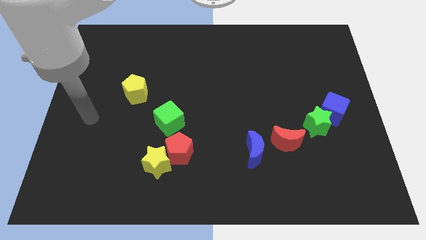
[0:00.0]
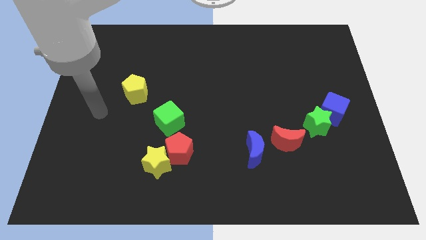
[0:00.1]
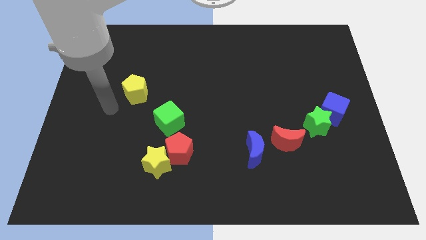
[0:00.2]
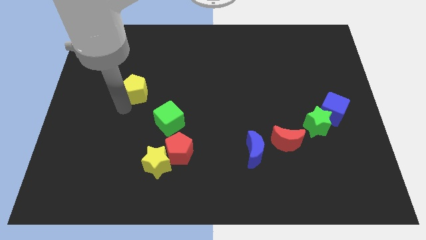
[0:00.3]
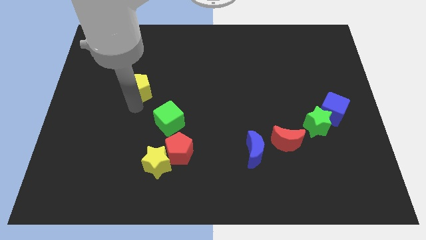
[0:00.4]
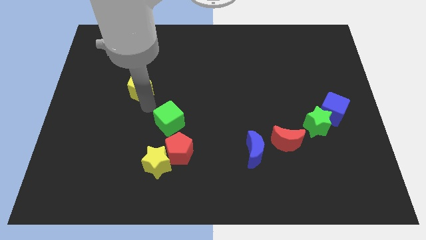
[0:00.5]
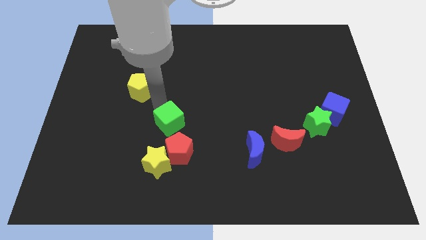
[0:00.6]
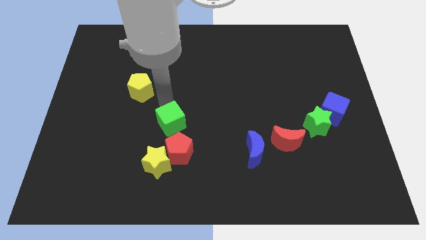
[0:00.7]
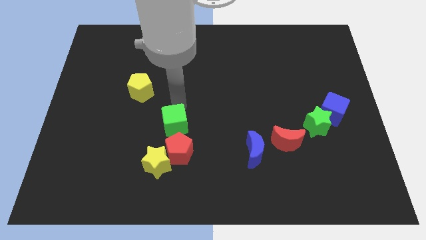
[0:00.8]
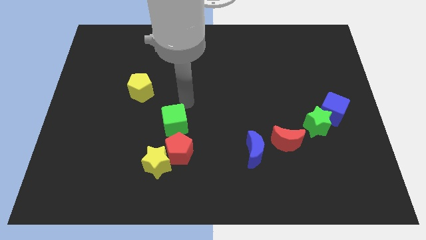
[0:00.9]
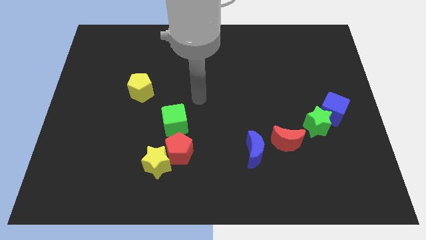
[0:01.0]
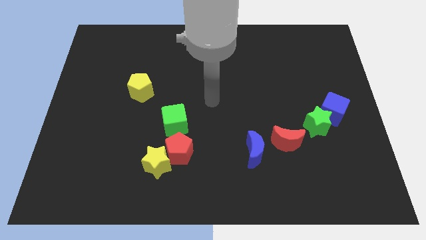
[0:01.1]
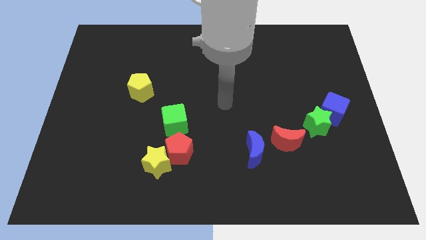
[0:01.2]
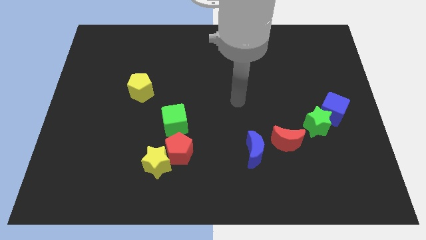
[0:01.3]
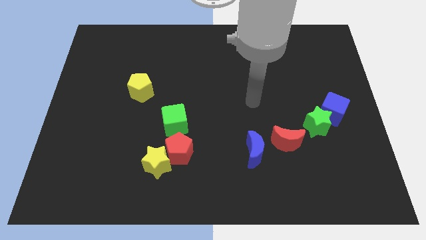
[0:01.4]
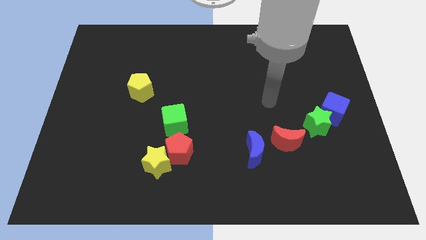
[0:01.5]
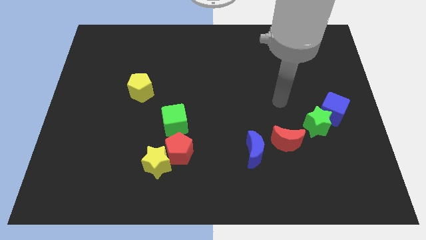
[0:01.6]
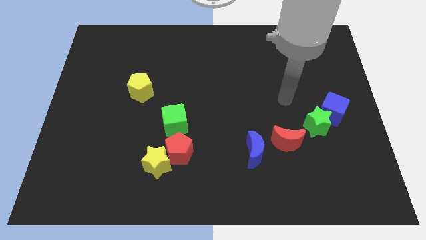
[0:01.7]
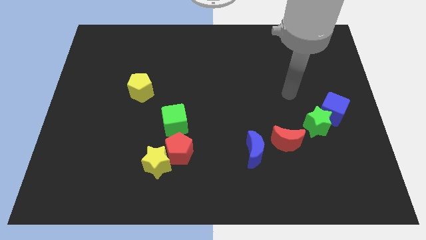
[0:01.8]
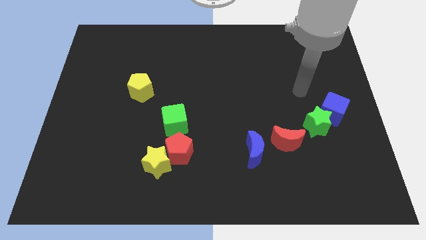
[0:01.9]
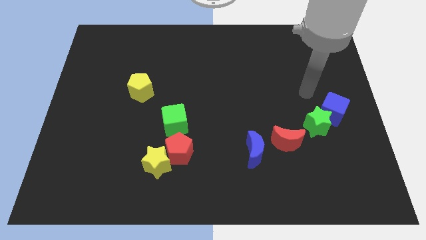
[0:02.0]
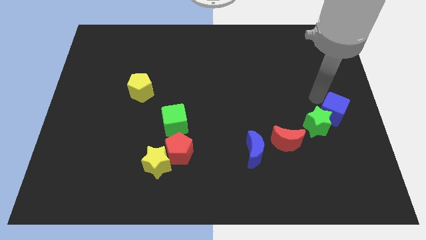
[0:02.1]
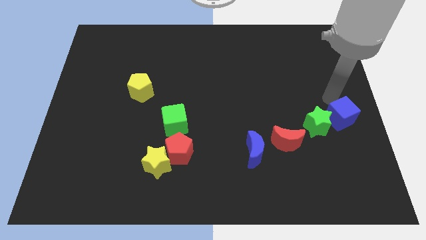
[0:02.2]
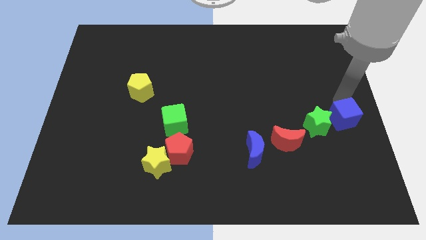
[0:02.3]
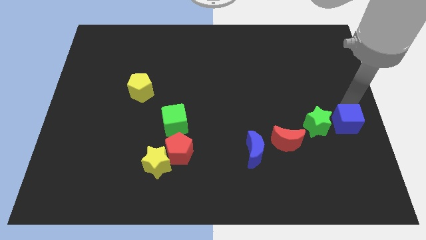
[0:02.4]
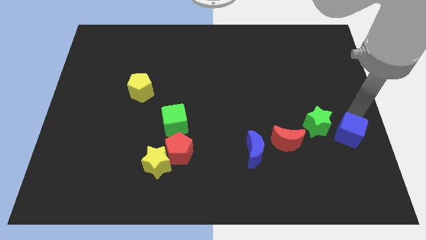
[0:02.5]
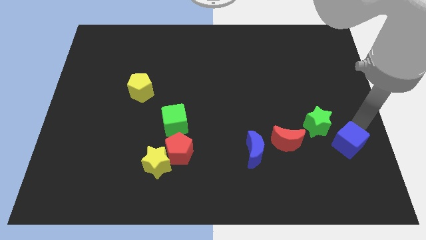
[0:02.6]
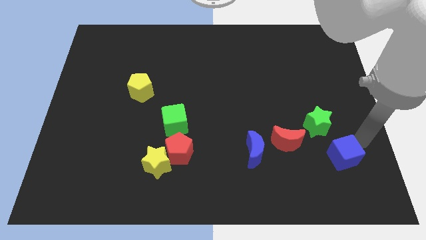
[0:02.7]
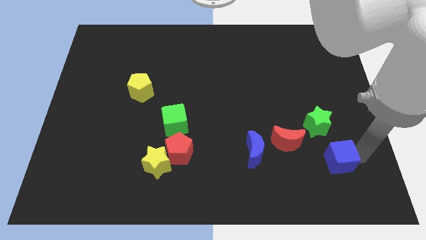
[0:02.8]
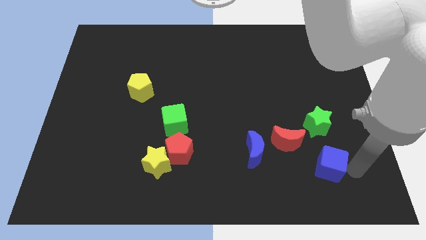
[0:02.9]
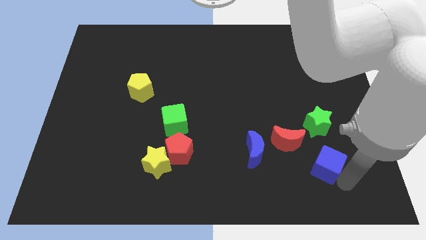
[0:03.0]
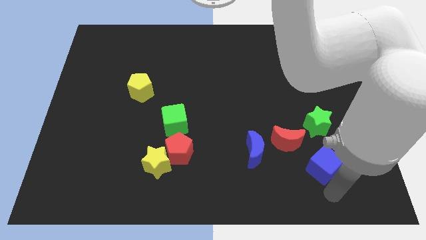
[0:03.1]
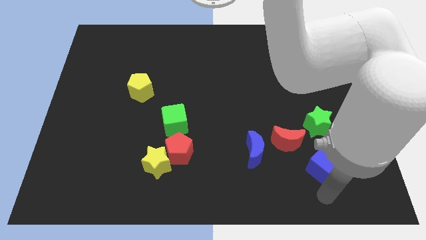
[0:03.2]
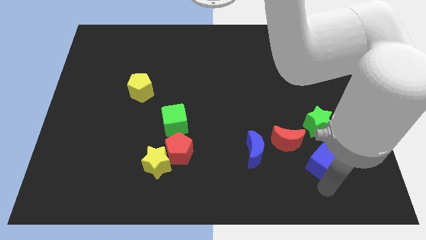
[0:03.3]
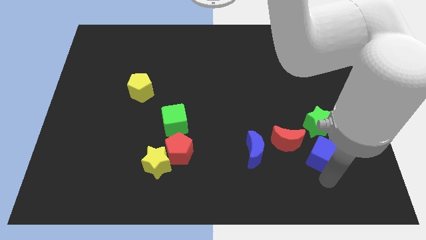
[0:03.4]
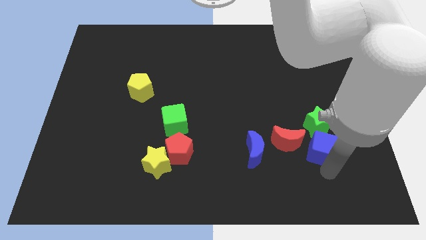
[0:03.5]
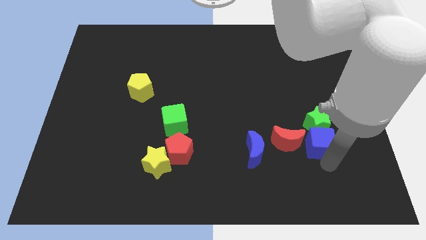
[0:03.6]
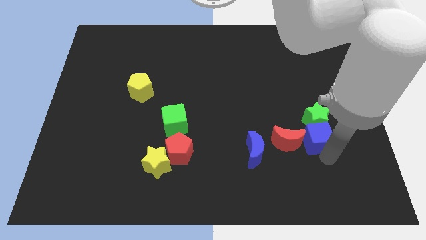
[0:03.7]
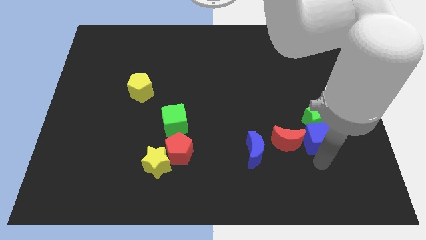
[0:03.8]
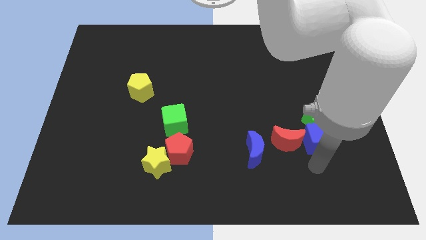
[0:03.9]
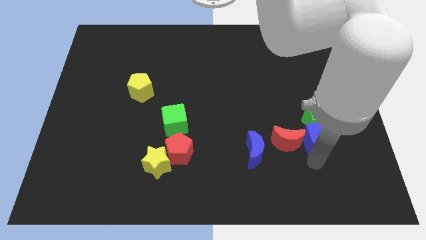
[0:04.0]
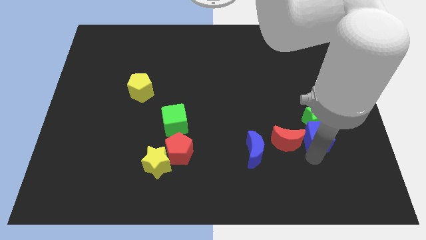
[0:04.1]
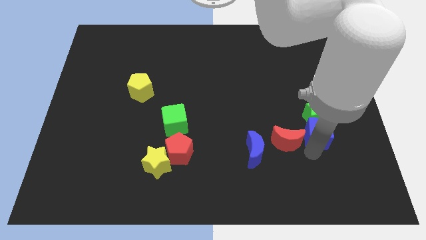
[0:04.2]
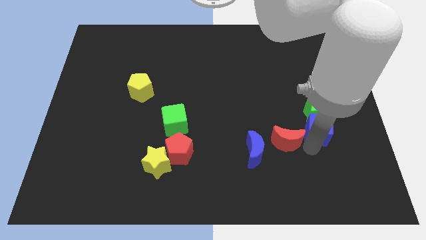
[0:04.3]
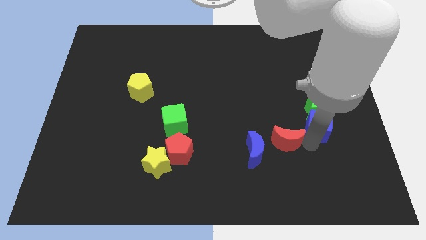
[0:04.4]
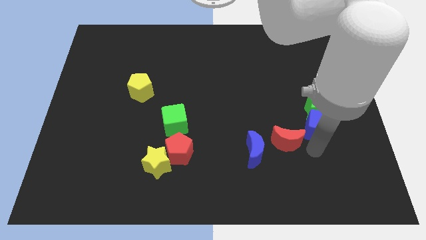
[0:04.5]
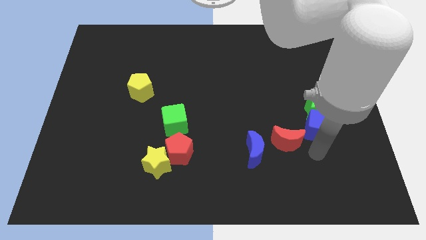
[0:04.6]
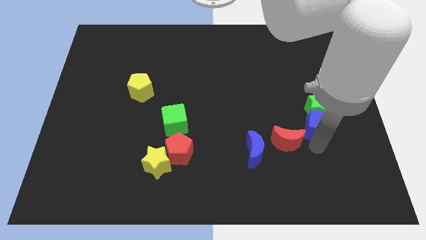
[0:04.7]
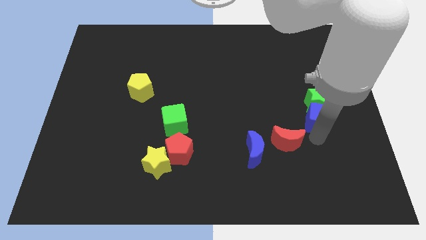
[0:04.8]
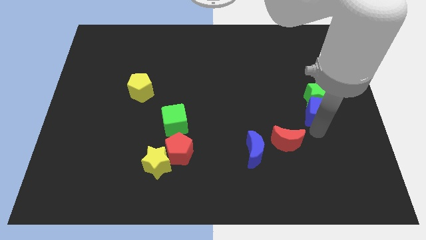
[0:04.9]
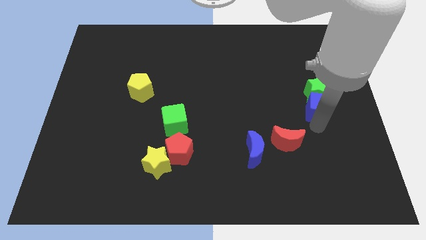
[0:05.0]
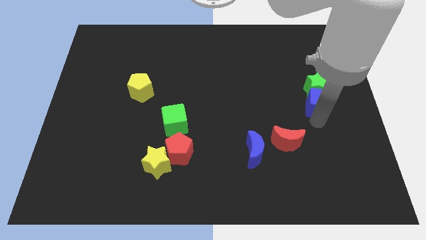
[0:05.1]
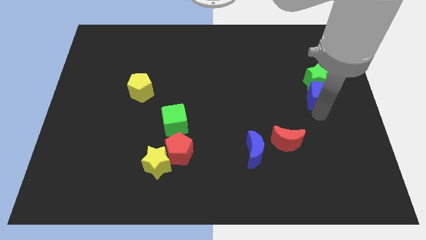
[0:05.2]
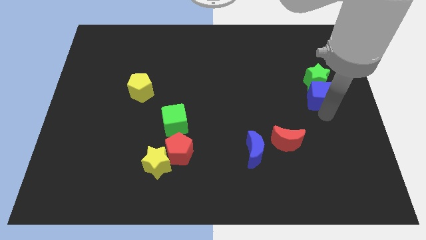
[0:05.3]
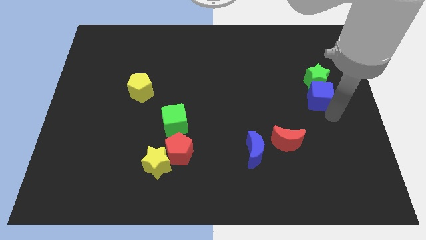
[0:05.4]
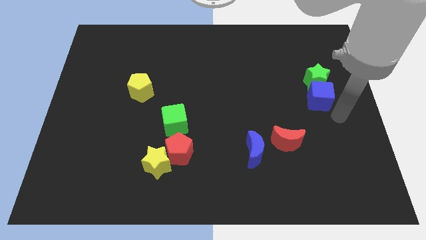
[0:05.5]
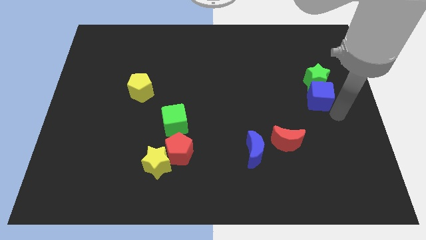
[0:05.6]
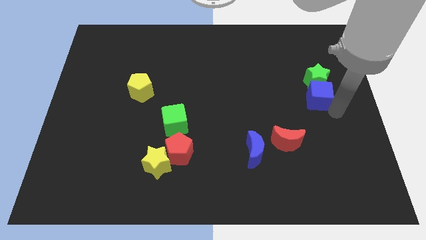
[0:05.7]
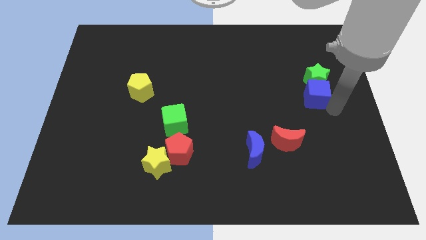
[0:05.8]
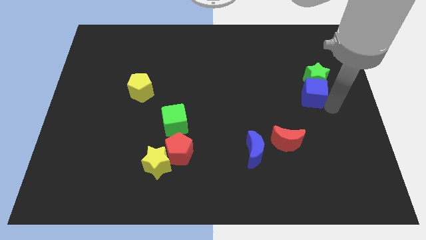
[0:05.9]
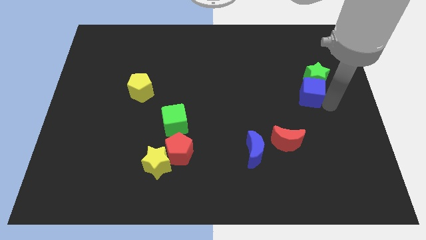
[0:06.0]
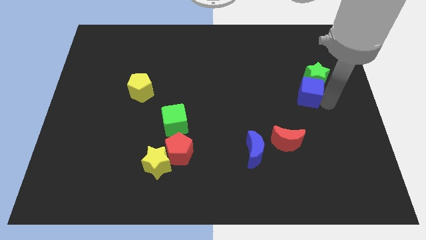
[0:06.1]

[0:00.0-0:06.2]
slightly move the blue cube upwards and to the left diagonally

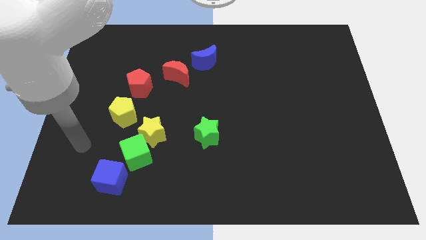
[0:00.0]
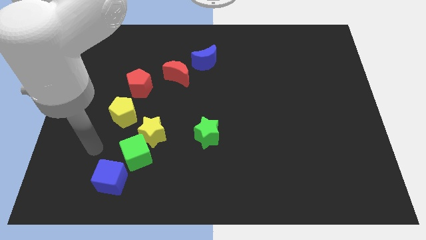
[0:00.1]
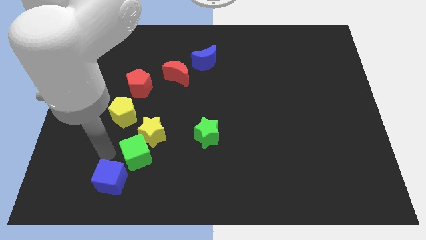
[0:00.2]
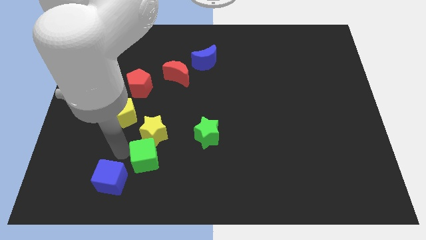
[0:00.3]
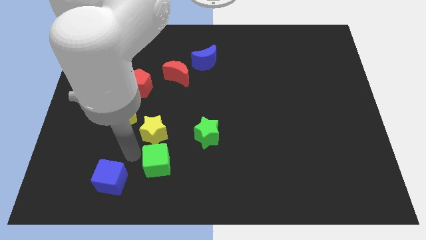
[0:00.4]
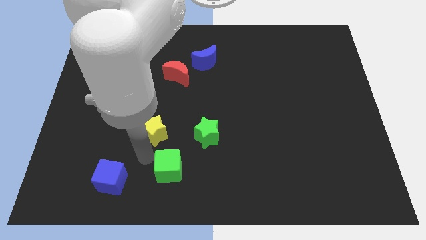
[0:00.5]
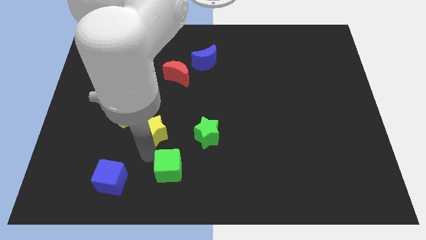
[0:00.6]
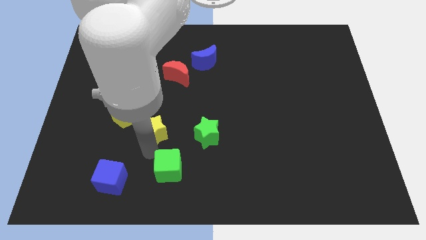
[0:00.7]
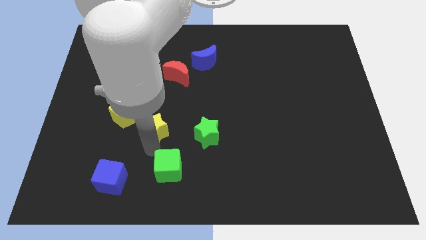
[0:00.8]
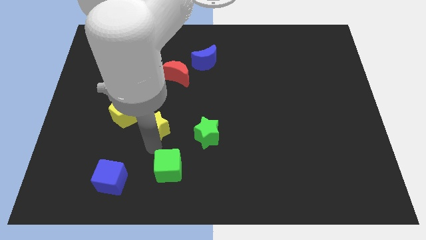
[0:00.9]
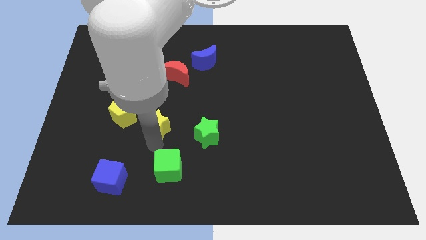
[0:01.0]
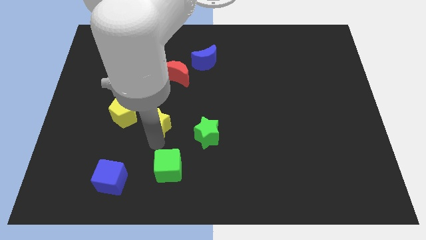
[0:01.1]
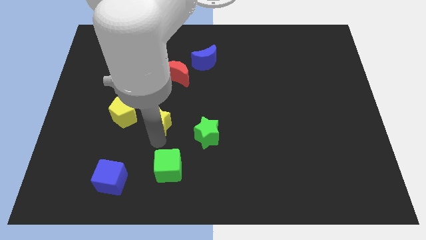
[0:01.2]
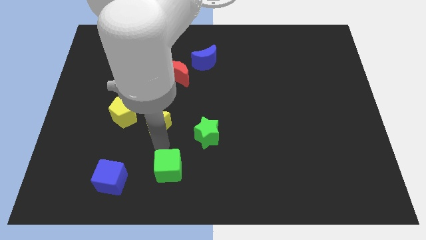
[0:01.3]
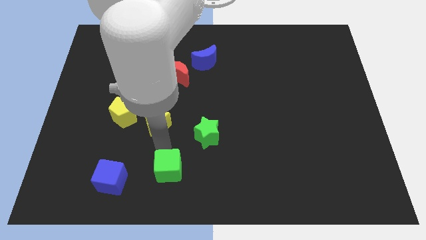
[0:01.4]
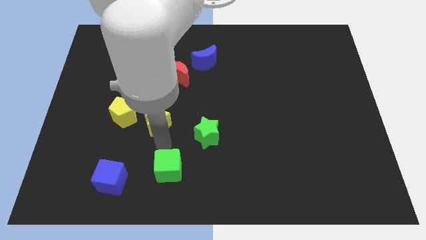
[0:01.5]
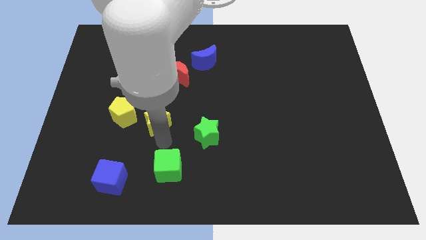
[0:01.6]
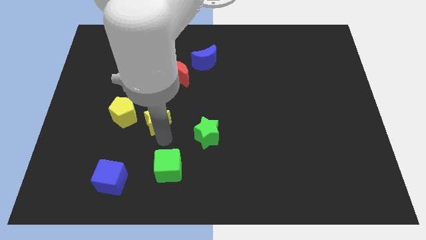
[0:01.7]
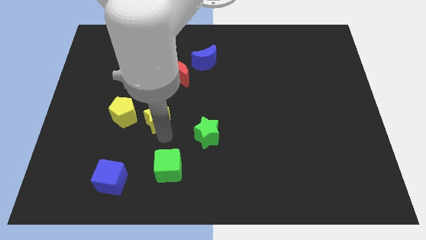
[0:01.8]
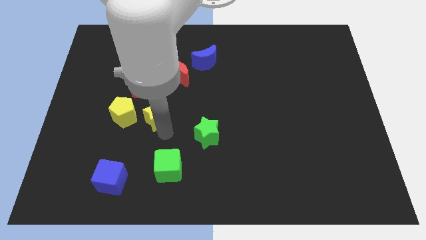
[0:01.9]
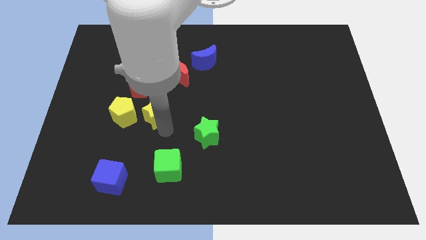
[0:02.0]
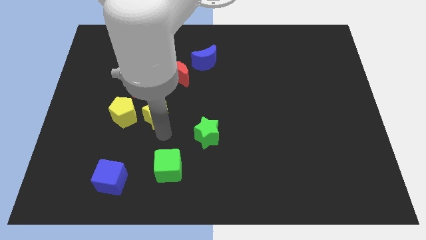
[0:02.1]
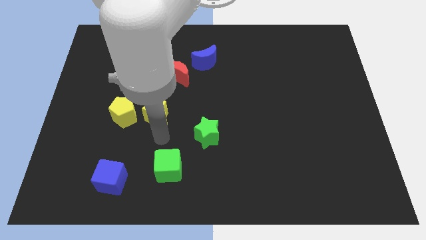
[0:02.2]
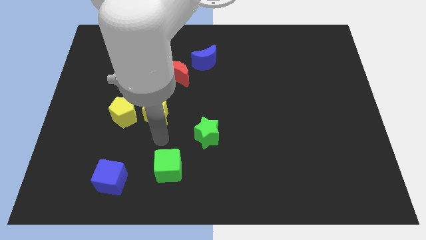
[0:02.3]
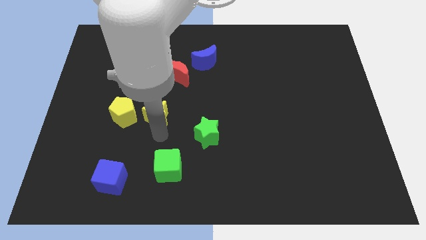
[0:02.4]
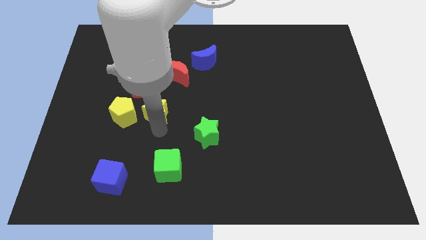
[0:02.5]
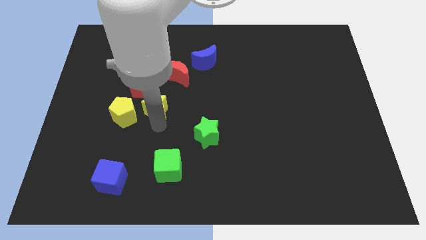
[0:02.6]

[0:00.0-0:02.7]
slide the yellow star upwards a little
